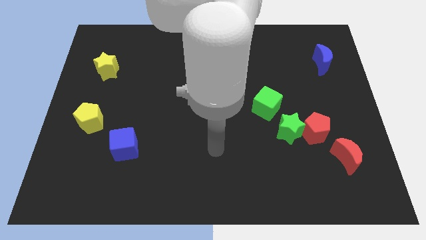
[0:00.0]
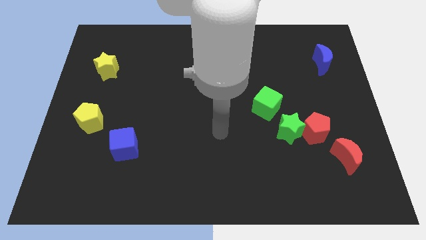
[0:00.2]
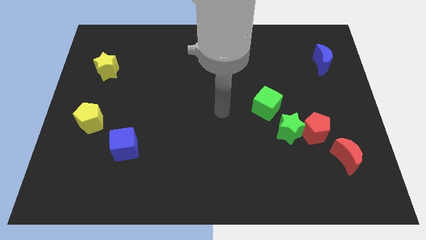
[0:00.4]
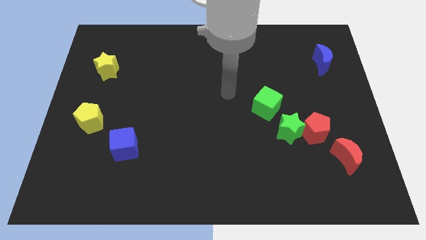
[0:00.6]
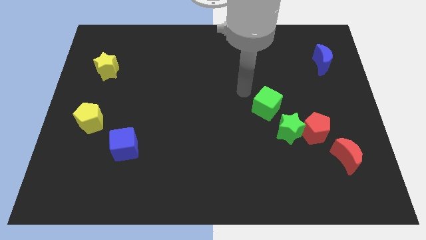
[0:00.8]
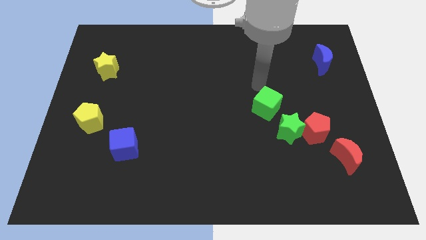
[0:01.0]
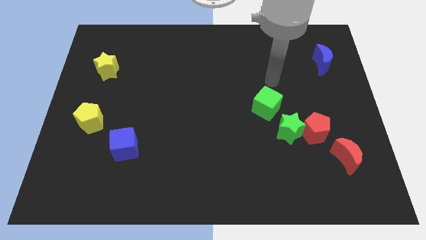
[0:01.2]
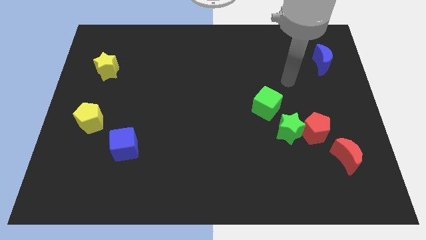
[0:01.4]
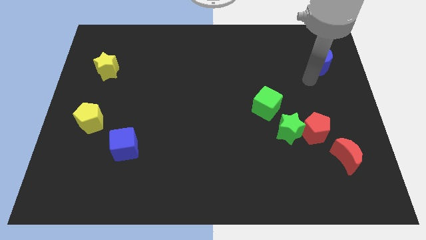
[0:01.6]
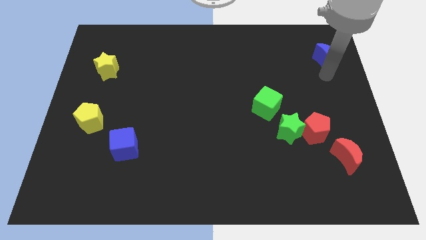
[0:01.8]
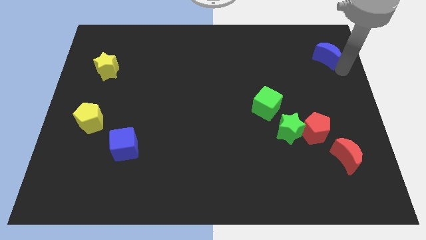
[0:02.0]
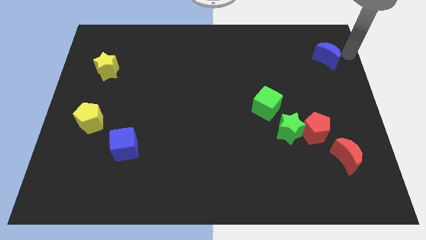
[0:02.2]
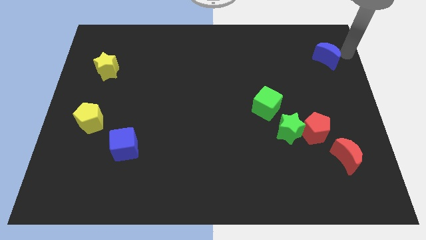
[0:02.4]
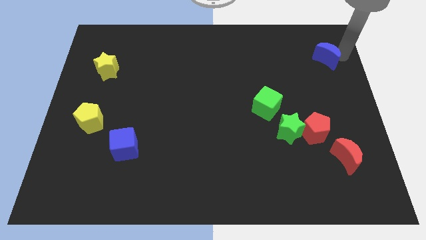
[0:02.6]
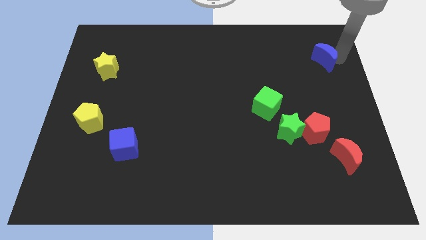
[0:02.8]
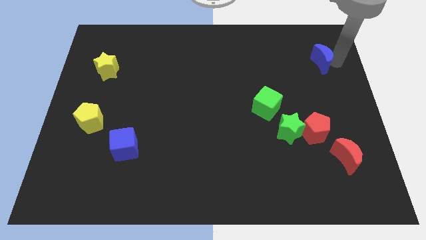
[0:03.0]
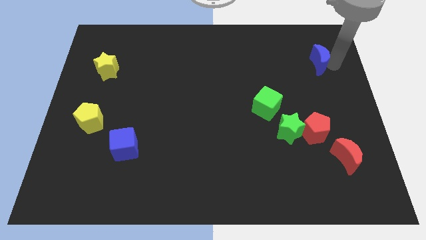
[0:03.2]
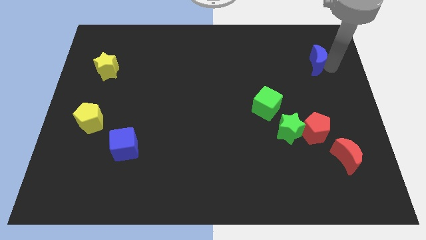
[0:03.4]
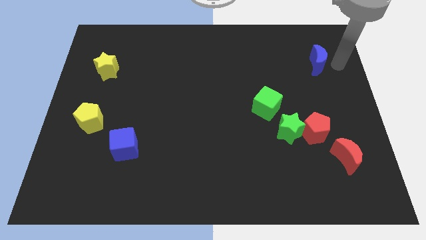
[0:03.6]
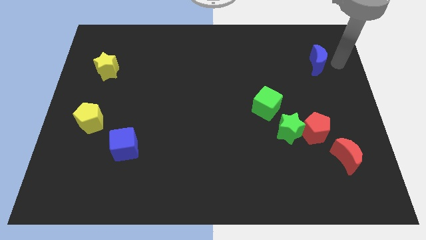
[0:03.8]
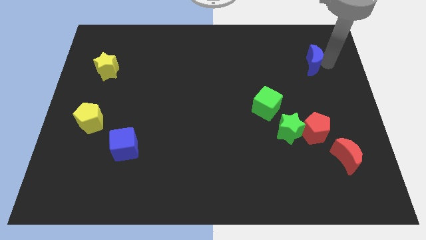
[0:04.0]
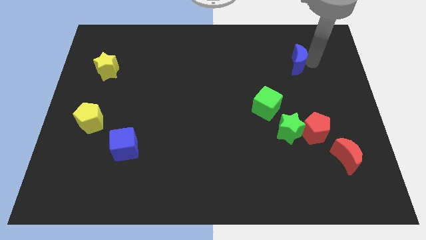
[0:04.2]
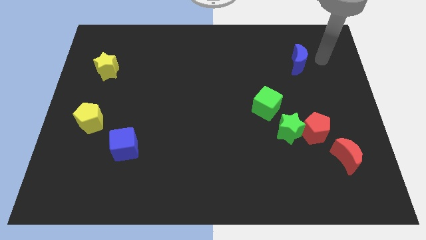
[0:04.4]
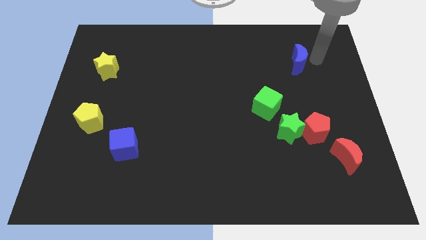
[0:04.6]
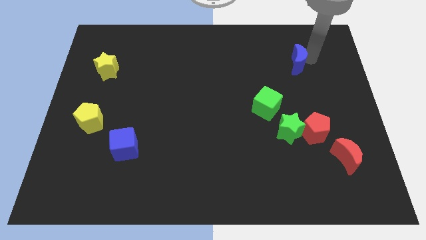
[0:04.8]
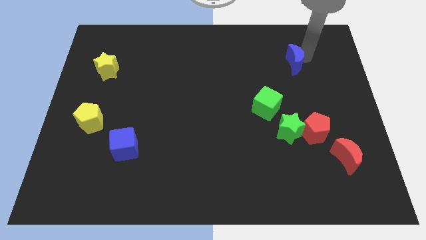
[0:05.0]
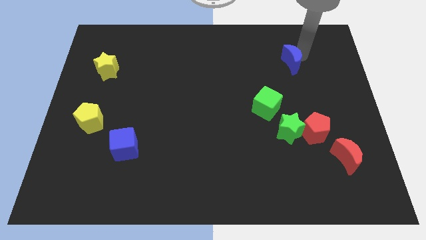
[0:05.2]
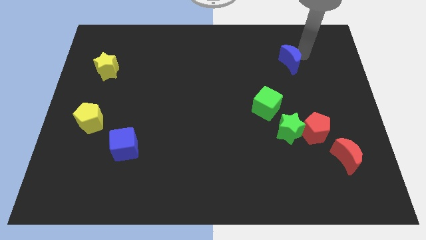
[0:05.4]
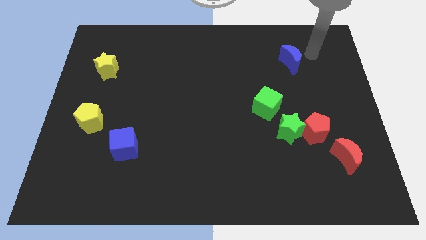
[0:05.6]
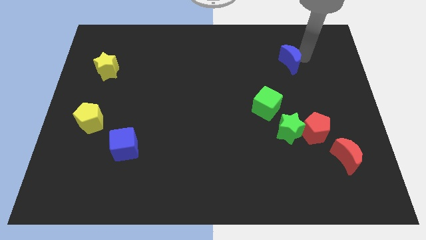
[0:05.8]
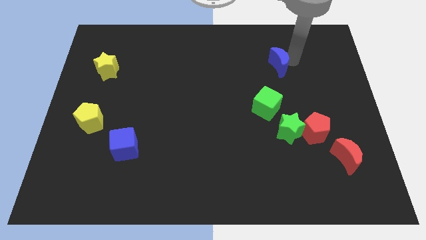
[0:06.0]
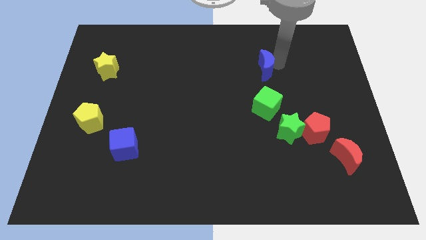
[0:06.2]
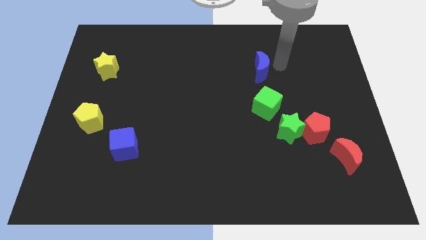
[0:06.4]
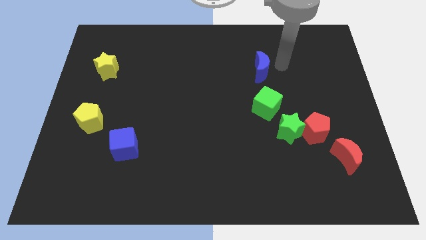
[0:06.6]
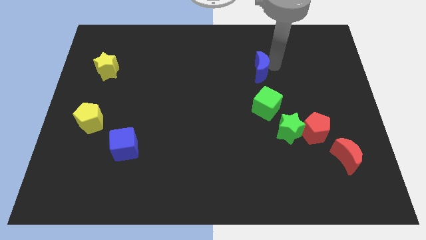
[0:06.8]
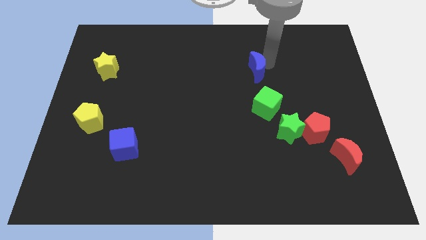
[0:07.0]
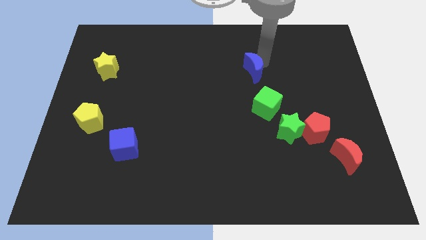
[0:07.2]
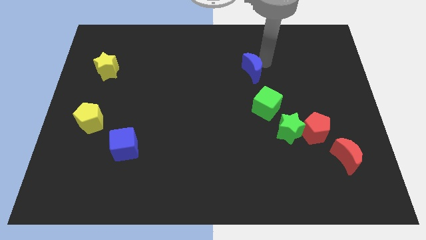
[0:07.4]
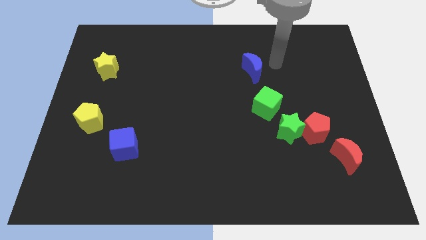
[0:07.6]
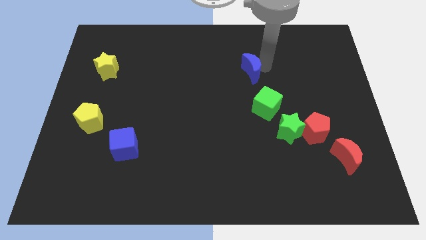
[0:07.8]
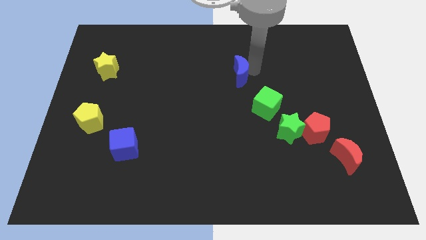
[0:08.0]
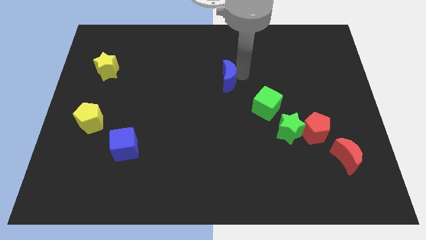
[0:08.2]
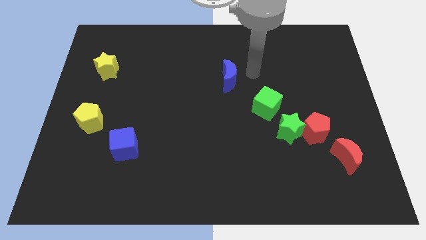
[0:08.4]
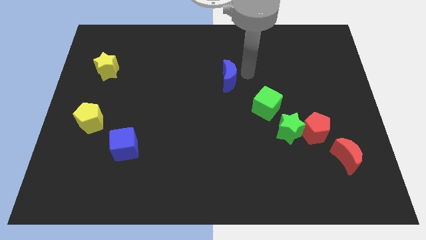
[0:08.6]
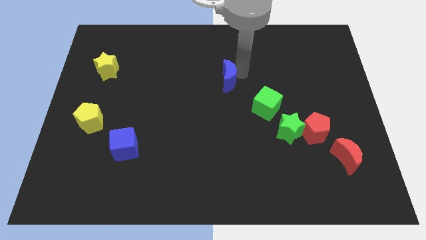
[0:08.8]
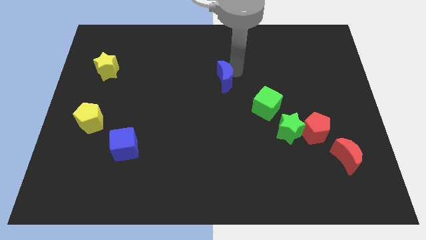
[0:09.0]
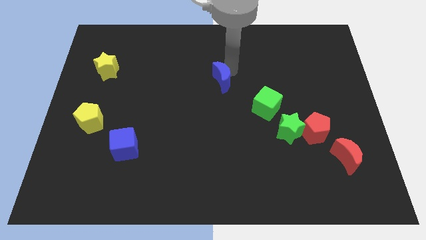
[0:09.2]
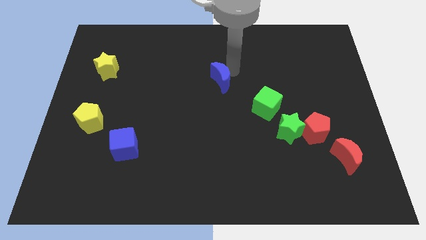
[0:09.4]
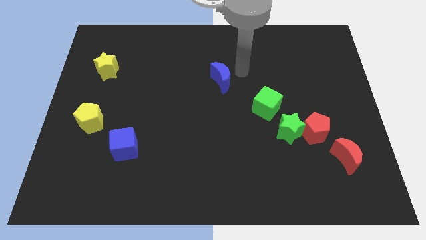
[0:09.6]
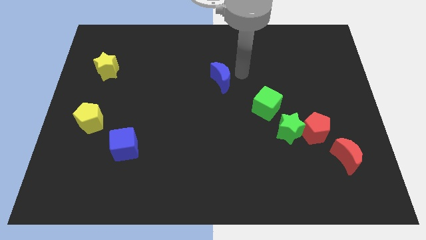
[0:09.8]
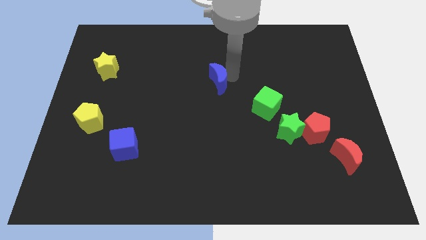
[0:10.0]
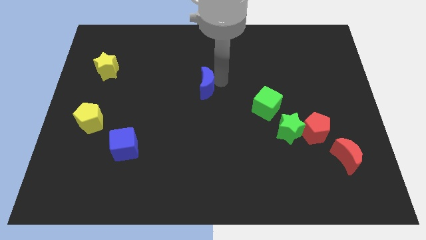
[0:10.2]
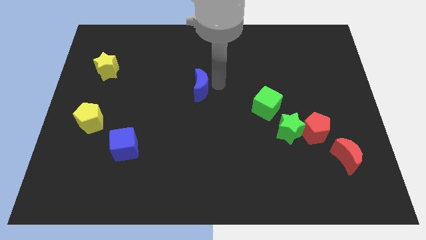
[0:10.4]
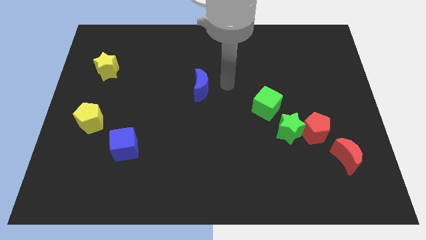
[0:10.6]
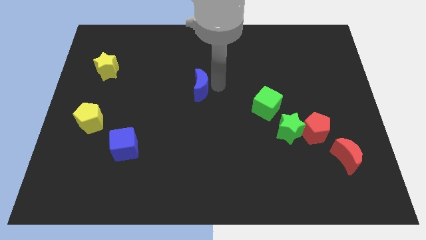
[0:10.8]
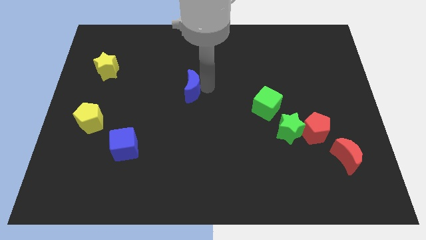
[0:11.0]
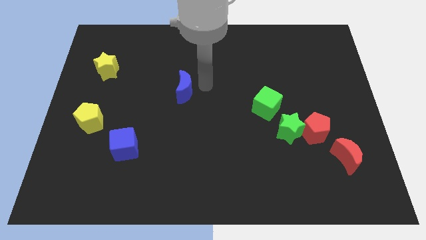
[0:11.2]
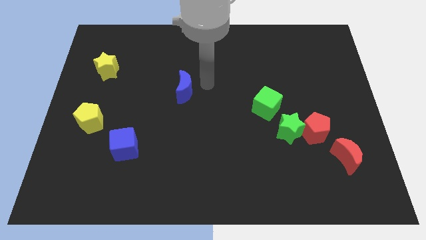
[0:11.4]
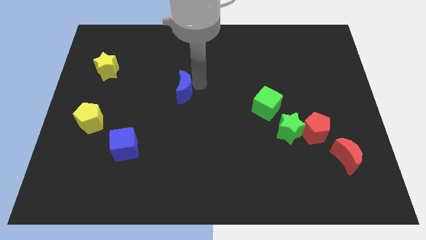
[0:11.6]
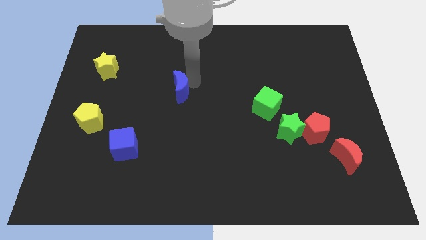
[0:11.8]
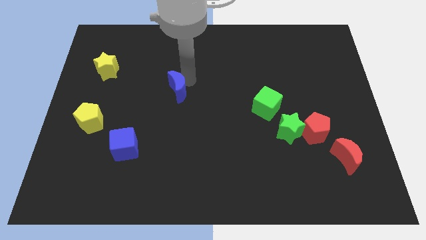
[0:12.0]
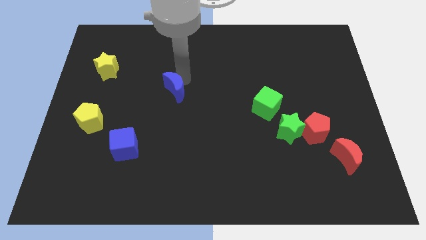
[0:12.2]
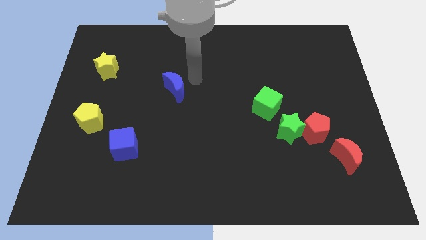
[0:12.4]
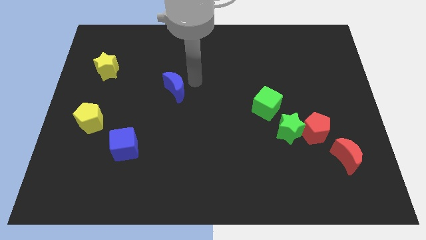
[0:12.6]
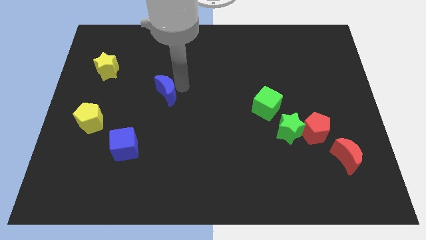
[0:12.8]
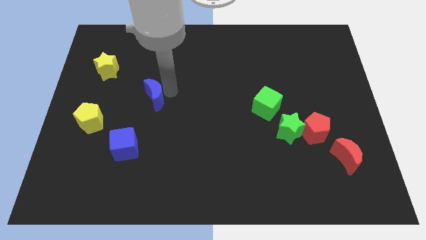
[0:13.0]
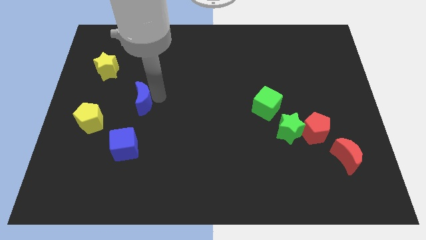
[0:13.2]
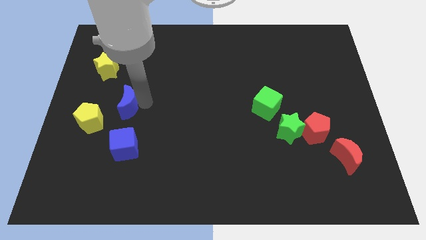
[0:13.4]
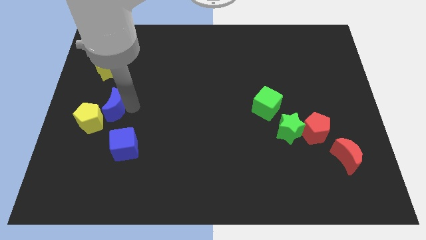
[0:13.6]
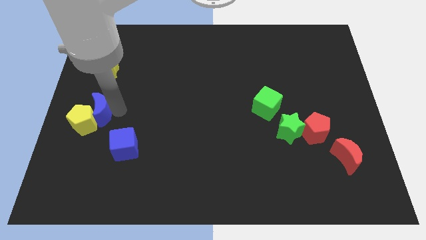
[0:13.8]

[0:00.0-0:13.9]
push the blue moon to the left side
